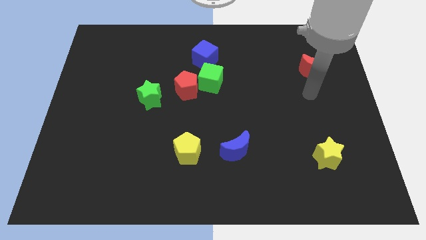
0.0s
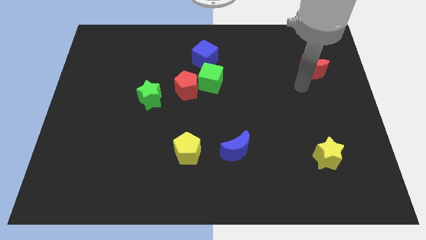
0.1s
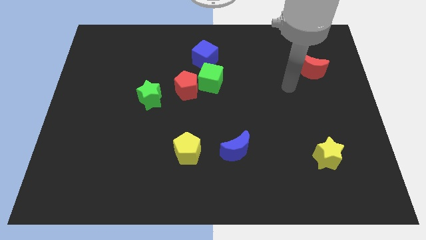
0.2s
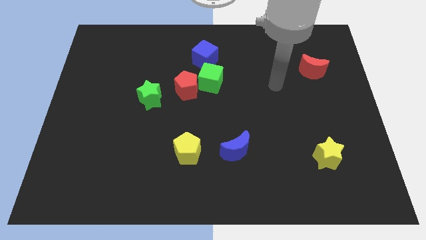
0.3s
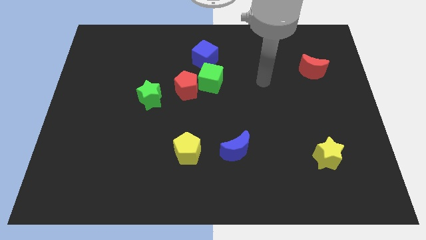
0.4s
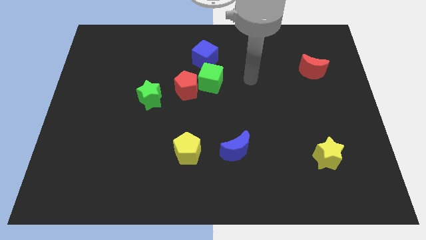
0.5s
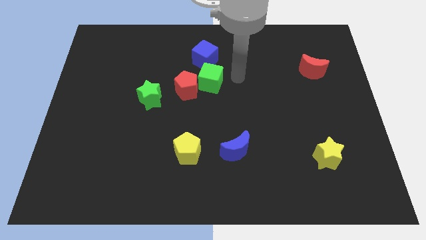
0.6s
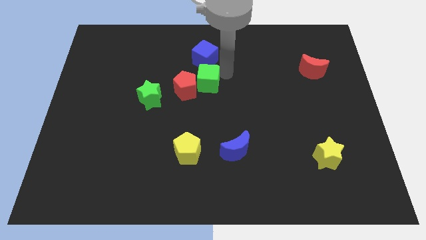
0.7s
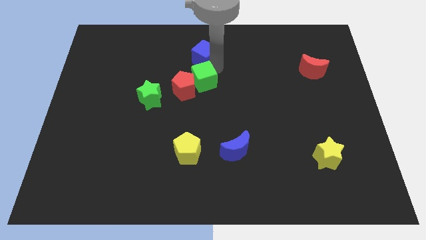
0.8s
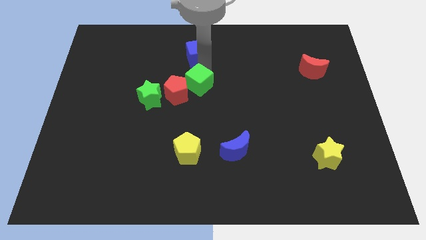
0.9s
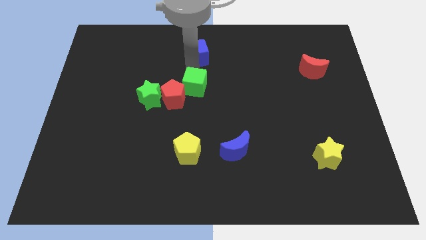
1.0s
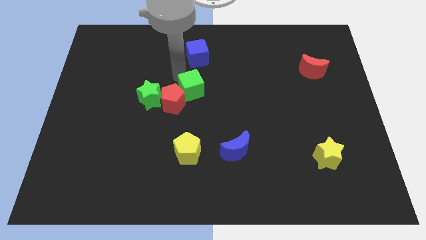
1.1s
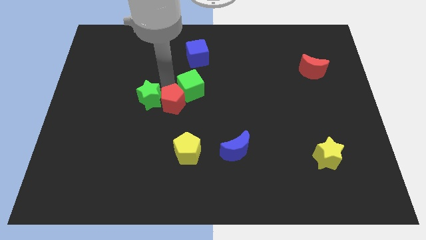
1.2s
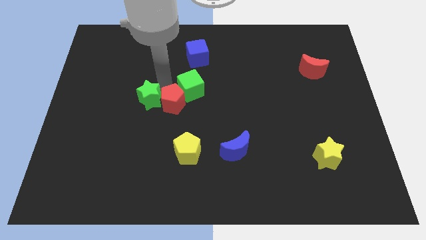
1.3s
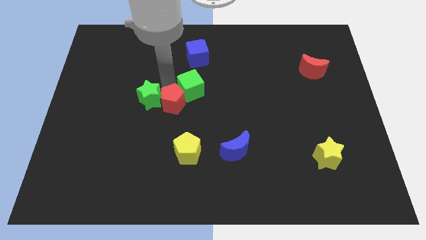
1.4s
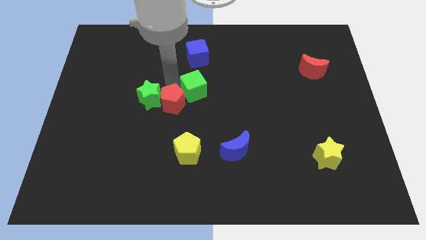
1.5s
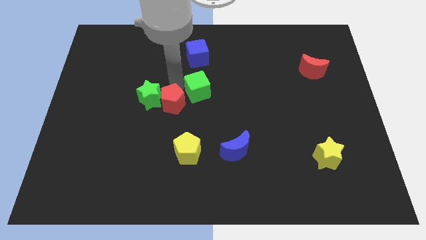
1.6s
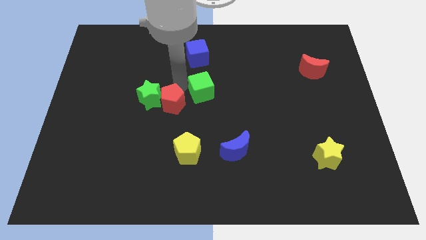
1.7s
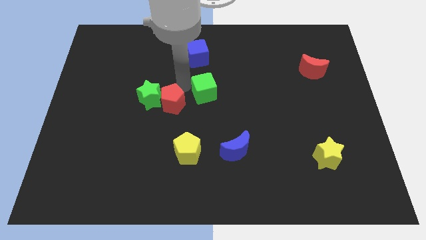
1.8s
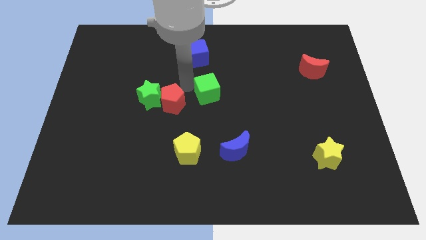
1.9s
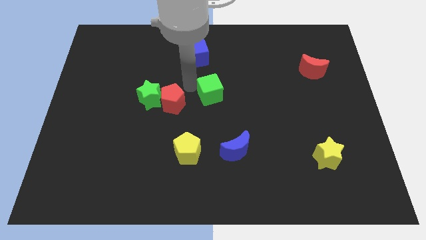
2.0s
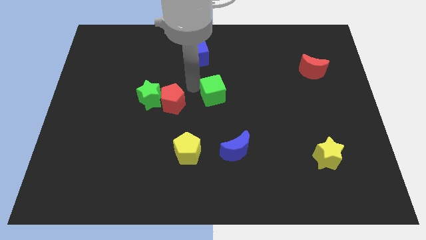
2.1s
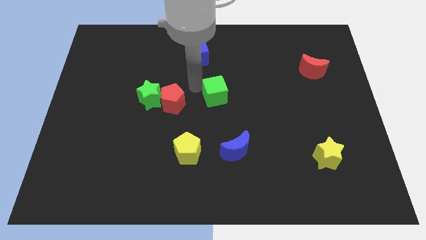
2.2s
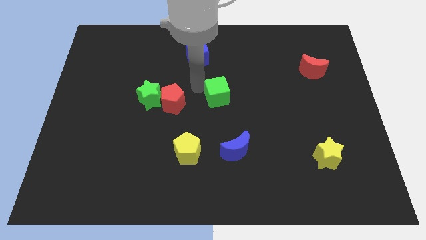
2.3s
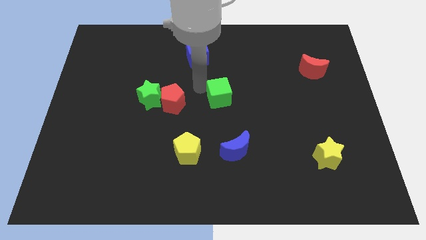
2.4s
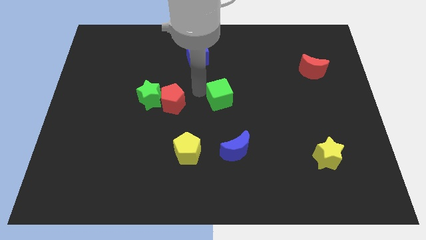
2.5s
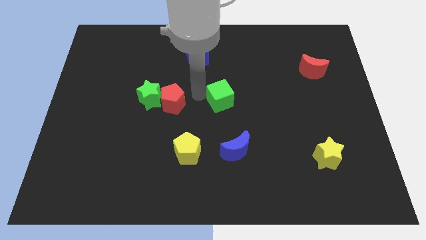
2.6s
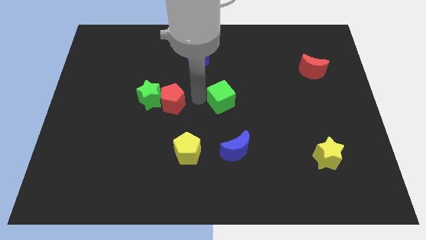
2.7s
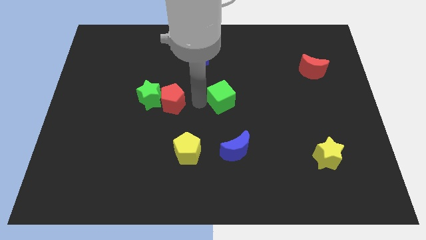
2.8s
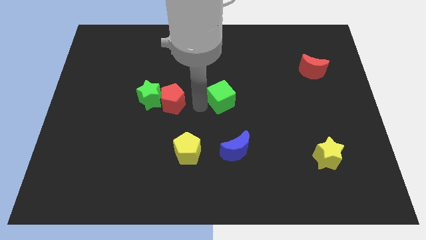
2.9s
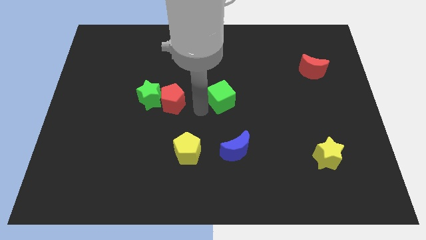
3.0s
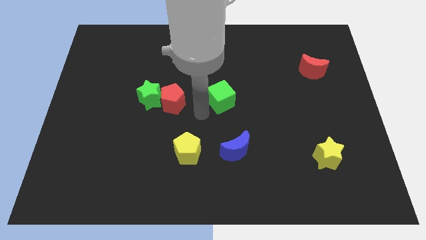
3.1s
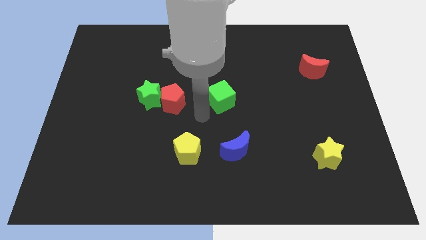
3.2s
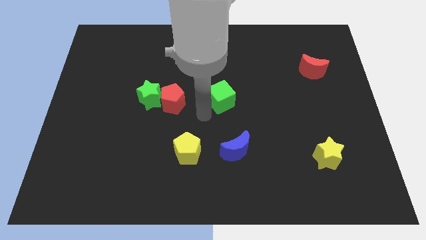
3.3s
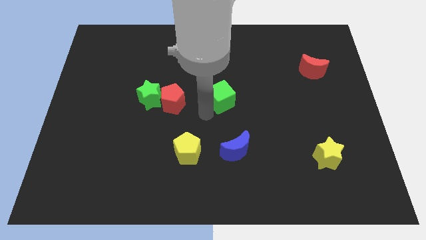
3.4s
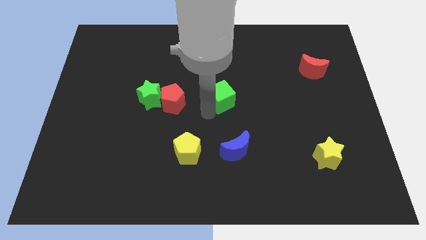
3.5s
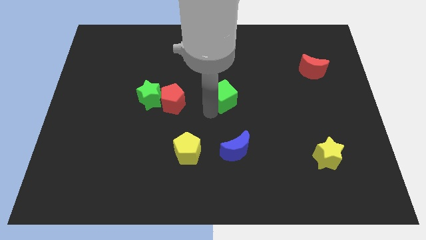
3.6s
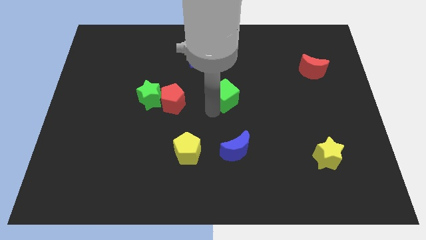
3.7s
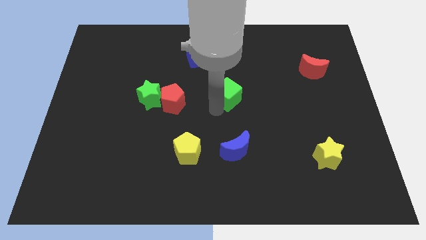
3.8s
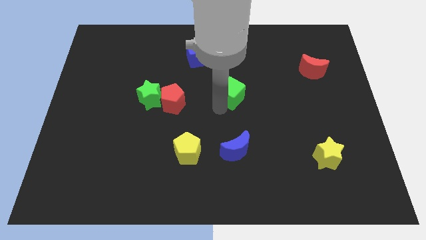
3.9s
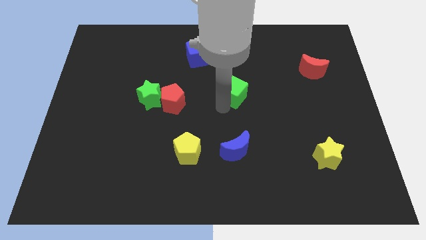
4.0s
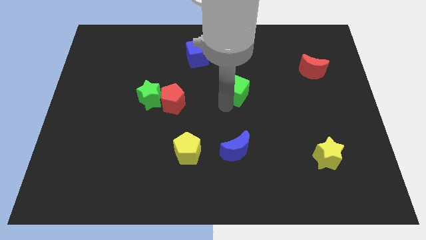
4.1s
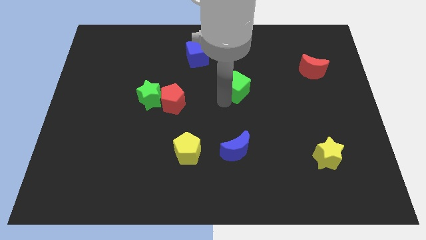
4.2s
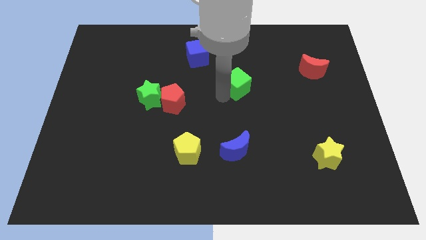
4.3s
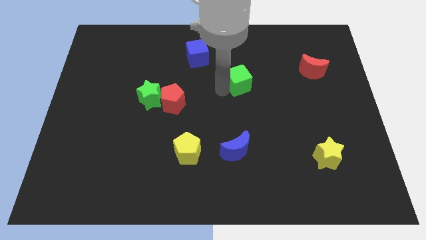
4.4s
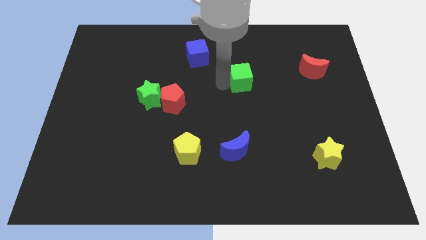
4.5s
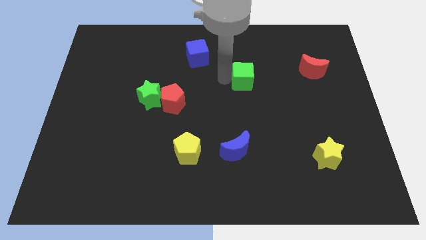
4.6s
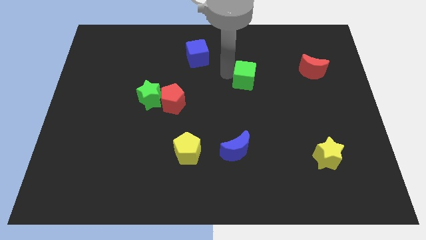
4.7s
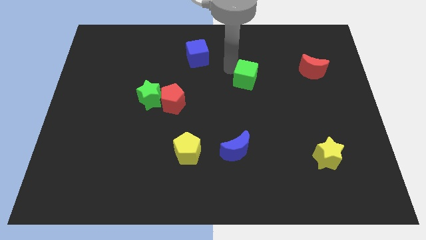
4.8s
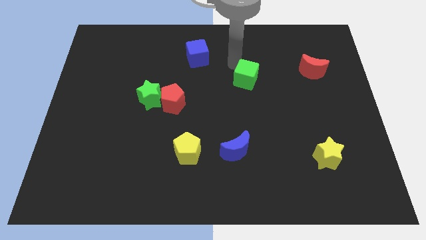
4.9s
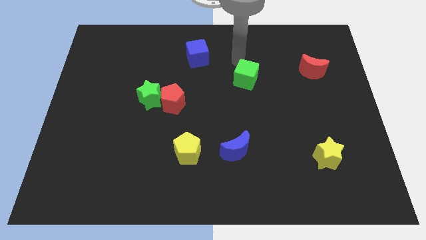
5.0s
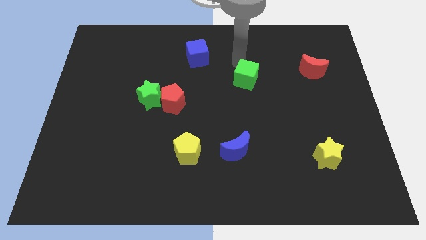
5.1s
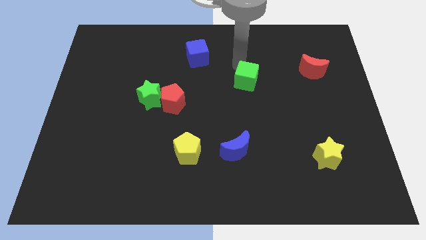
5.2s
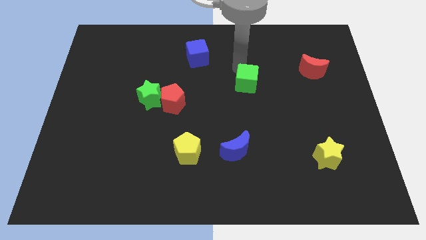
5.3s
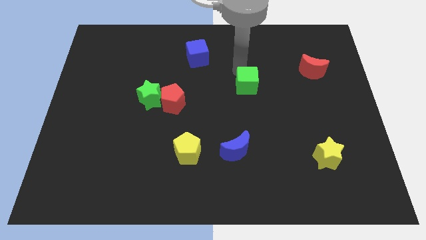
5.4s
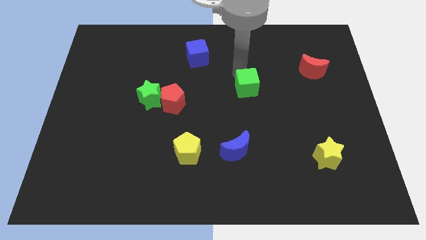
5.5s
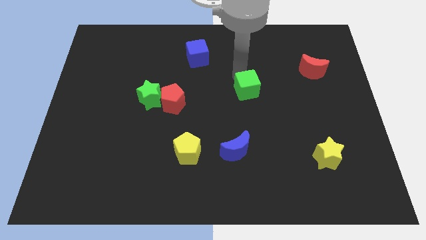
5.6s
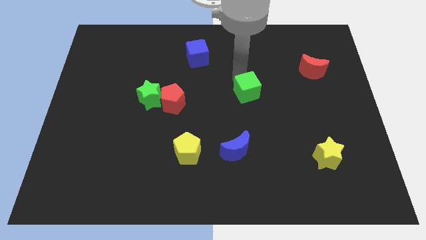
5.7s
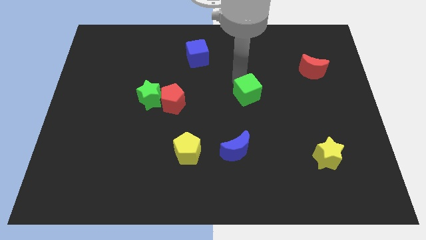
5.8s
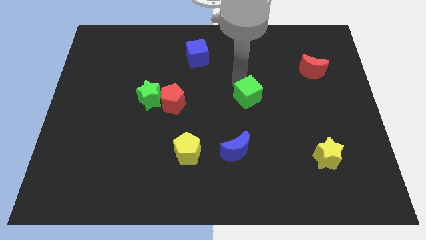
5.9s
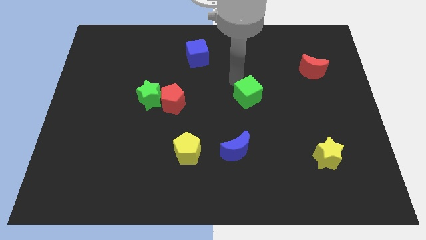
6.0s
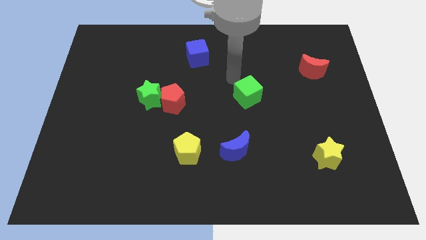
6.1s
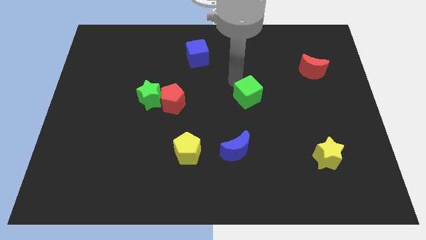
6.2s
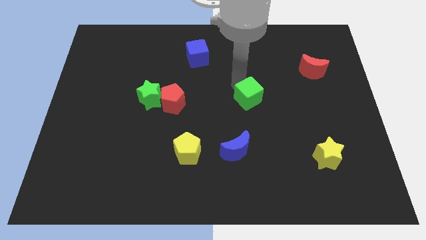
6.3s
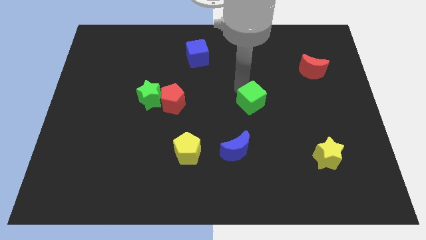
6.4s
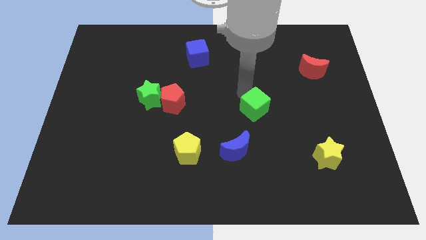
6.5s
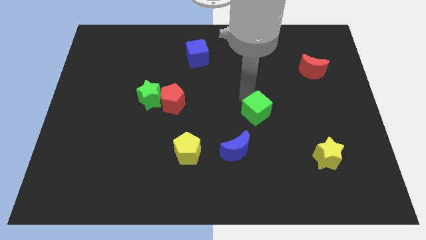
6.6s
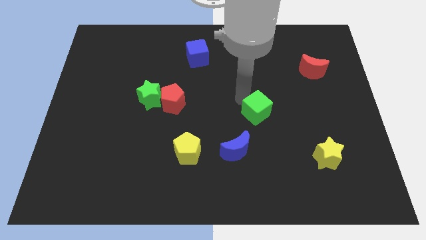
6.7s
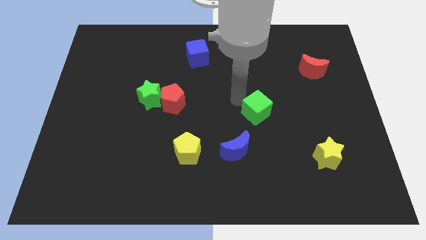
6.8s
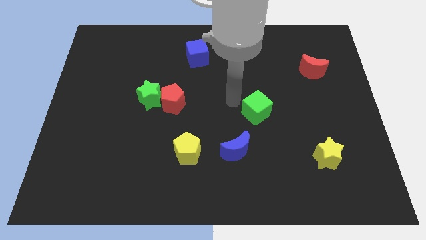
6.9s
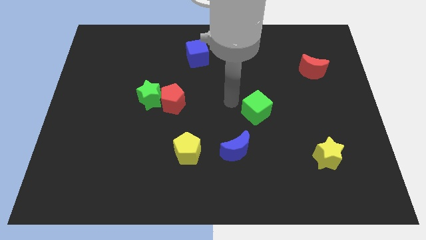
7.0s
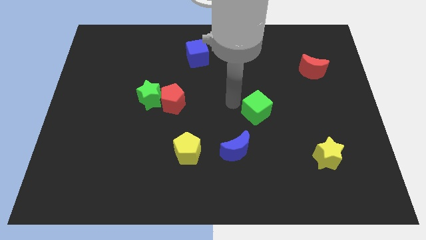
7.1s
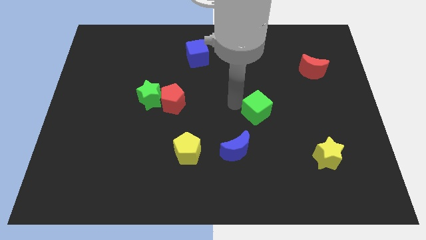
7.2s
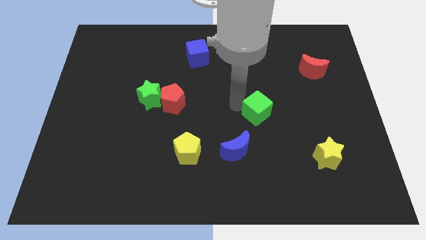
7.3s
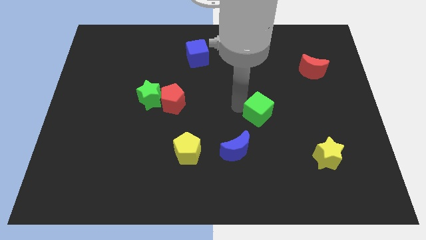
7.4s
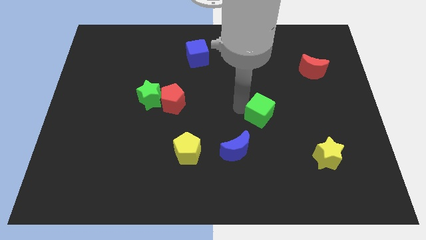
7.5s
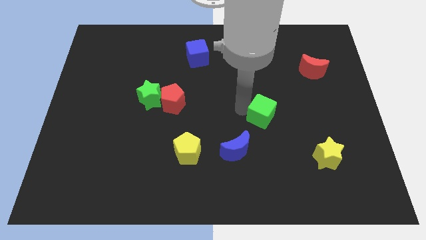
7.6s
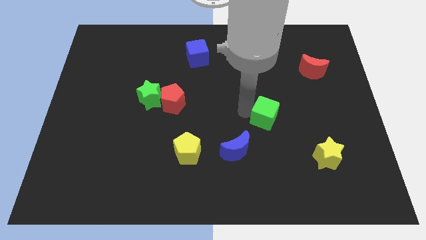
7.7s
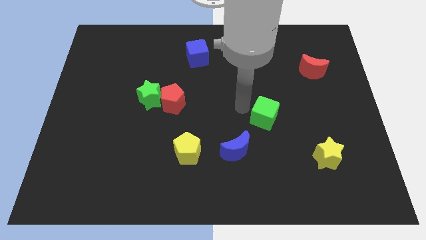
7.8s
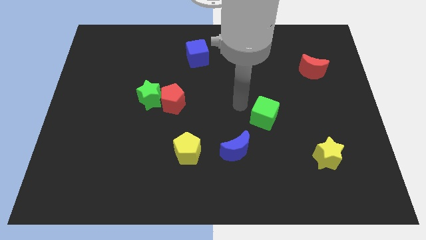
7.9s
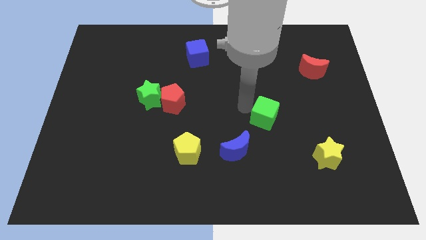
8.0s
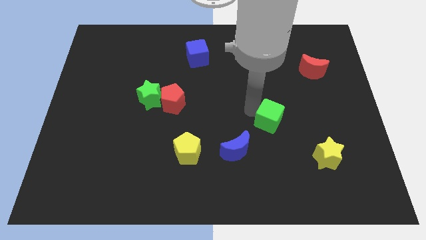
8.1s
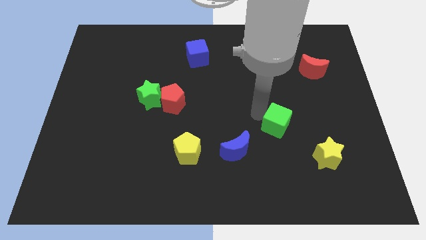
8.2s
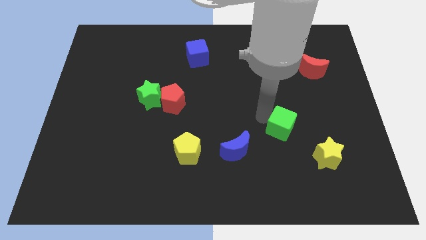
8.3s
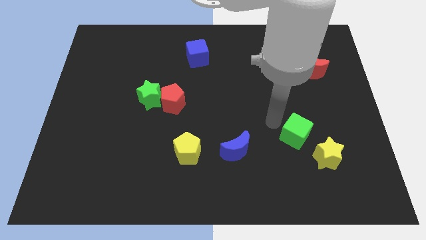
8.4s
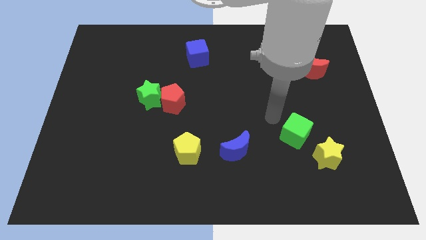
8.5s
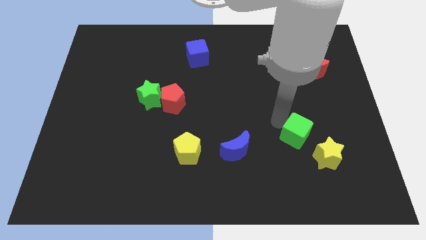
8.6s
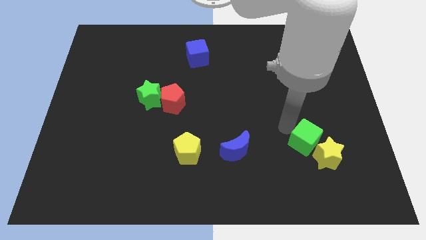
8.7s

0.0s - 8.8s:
put the green cube close to the yellow star
